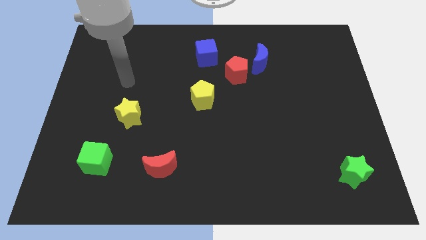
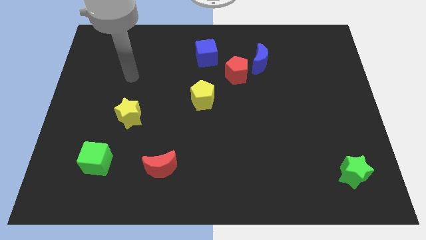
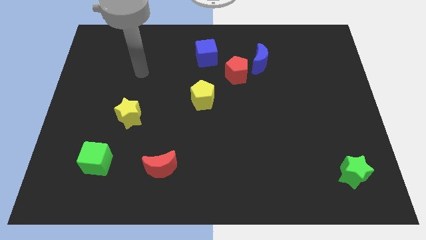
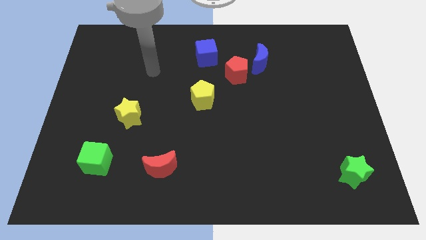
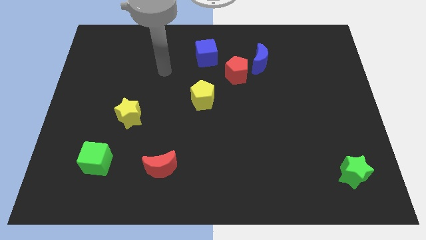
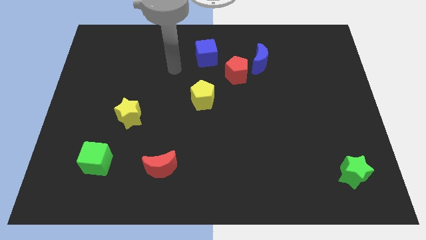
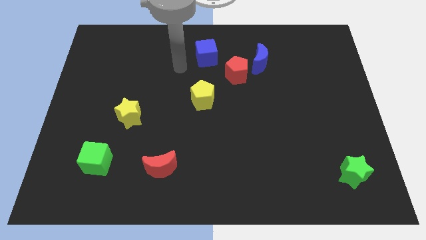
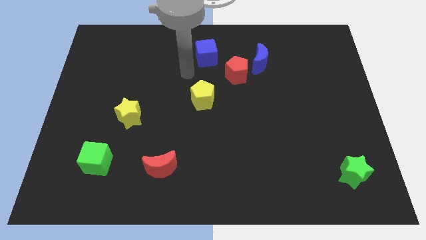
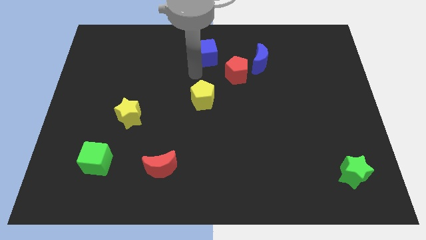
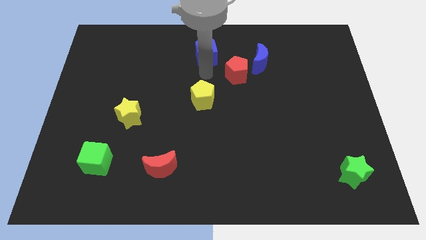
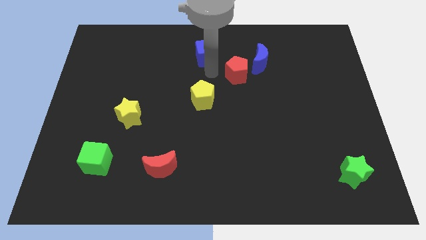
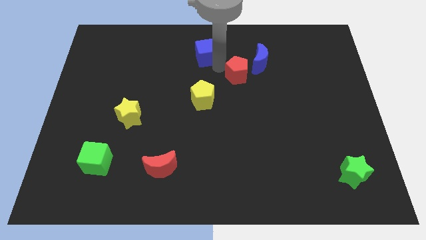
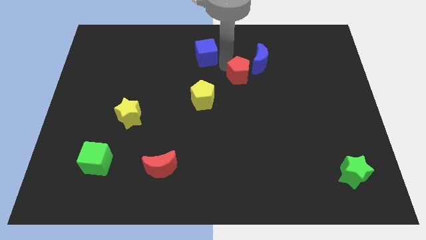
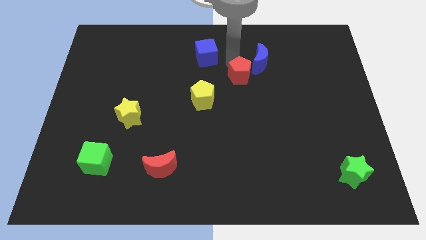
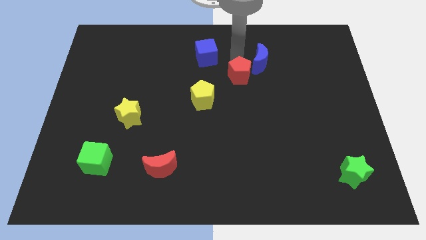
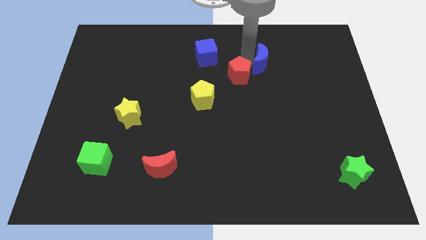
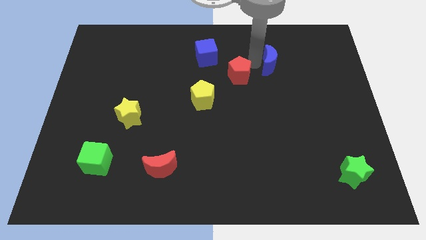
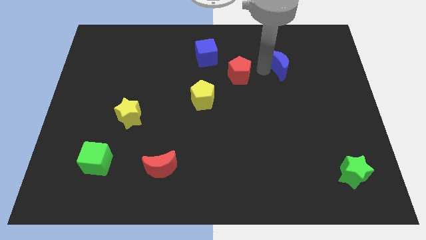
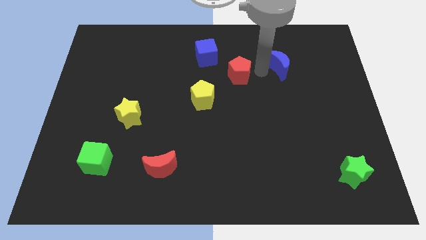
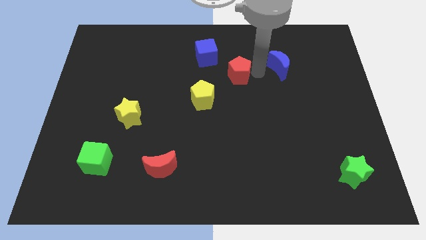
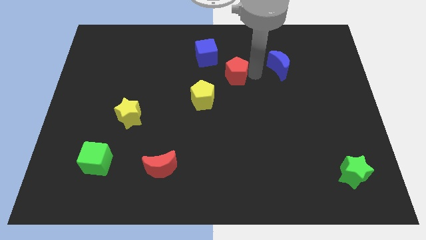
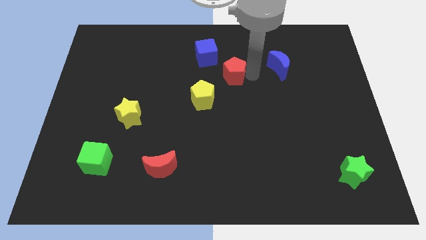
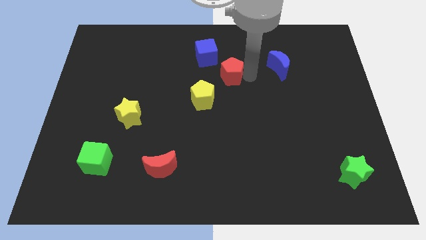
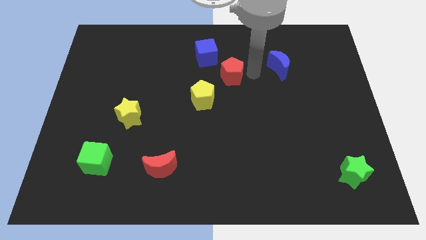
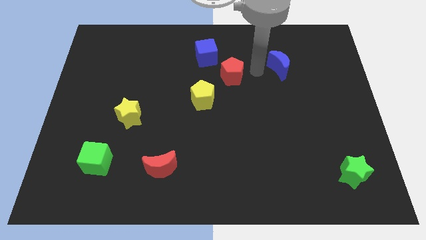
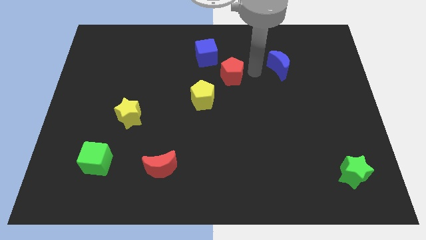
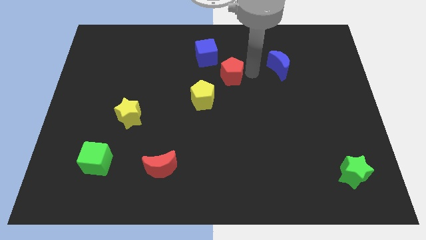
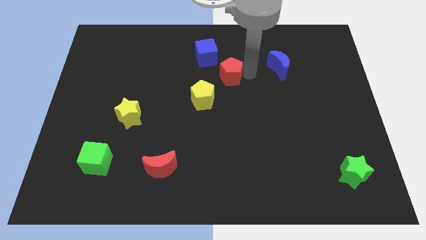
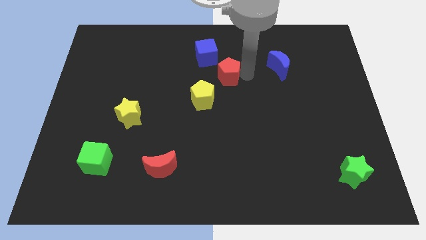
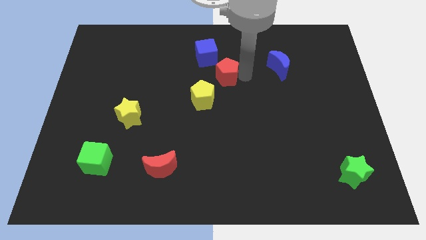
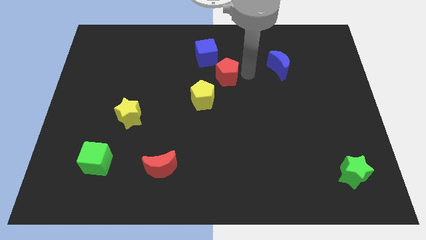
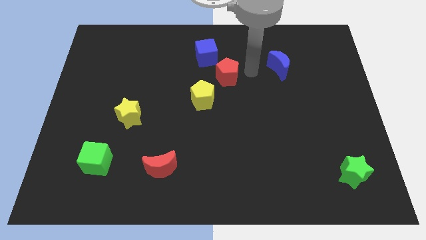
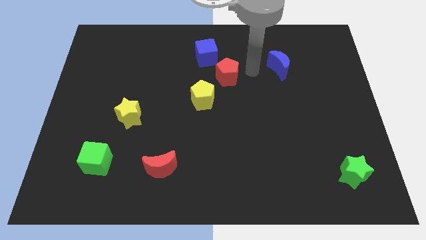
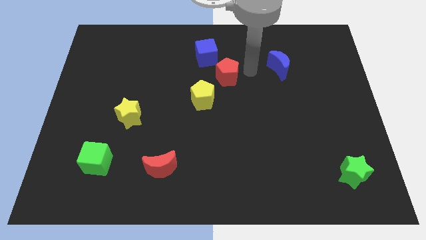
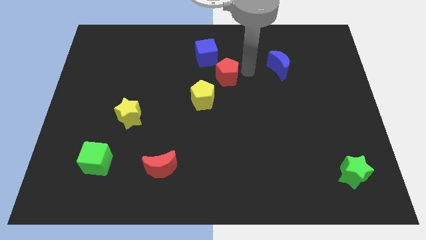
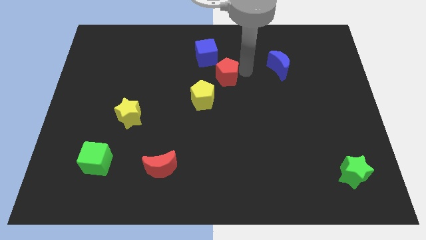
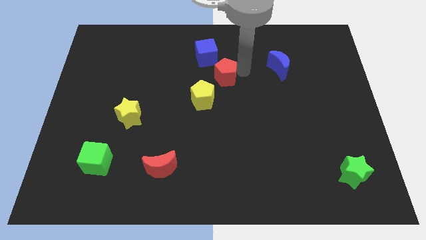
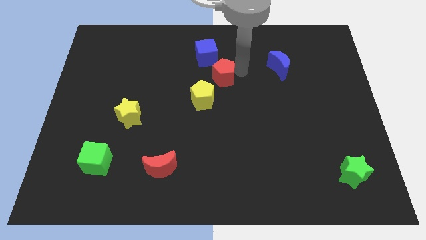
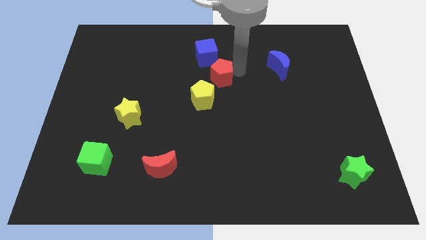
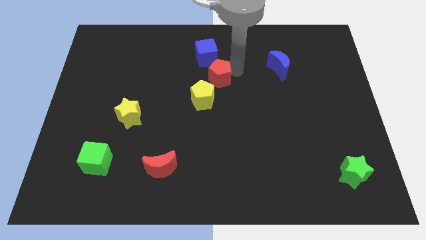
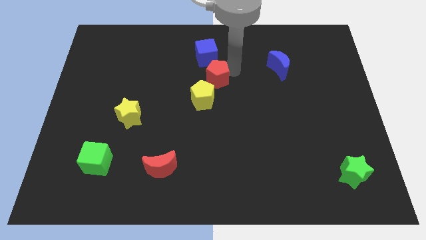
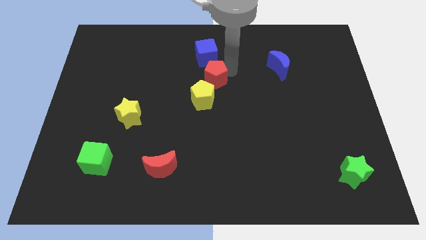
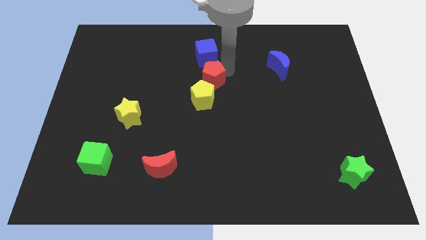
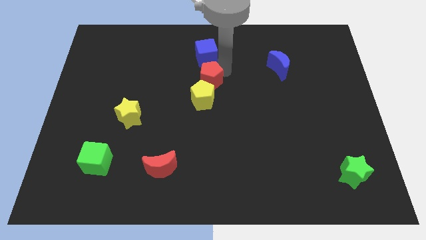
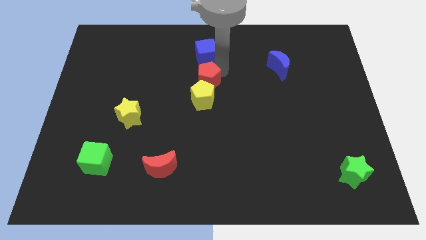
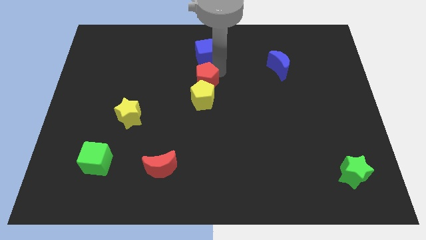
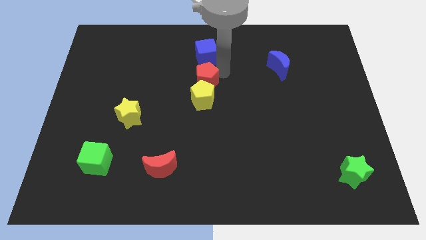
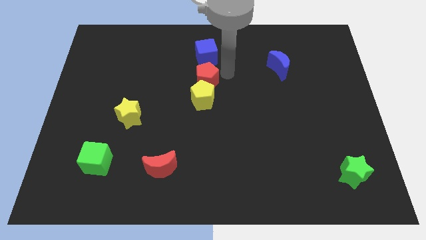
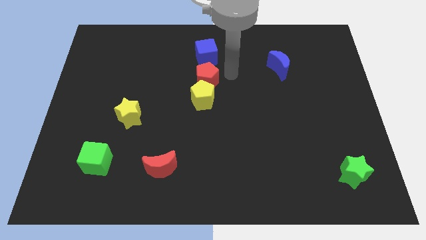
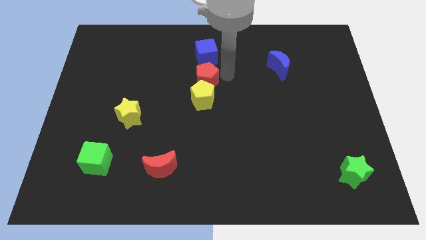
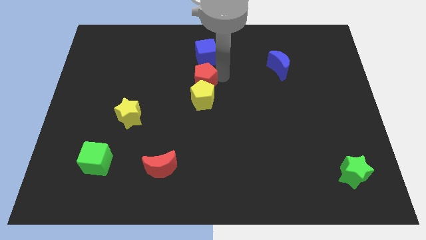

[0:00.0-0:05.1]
push the red pentagon down and to the left slightly

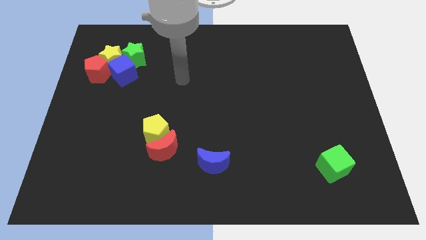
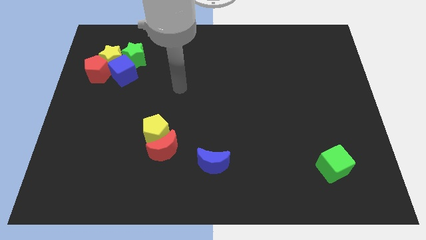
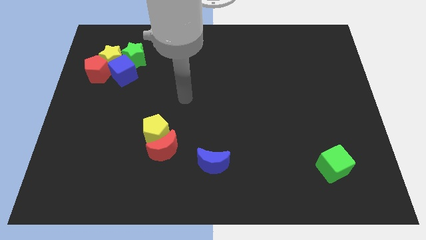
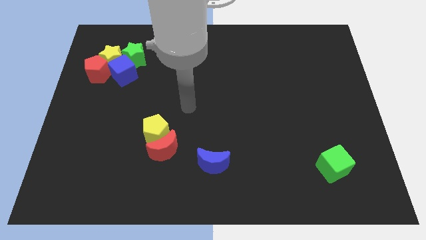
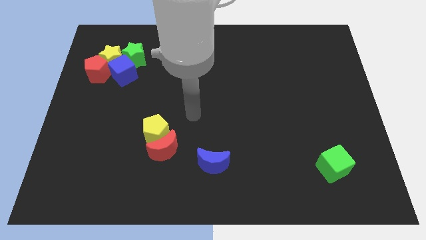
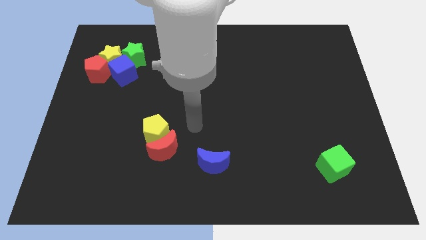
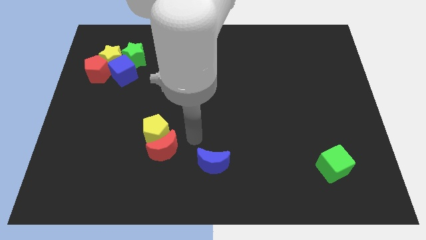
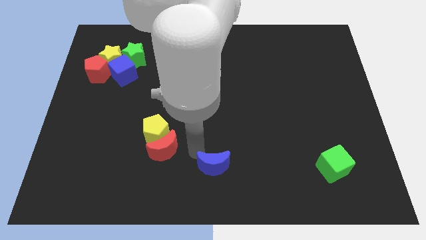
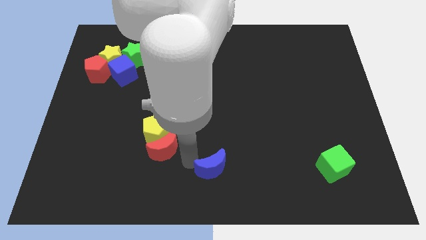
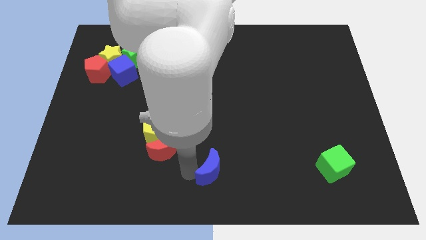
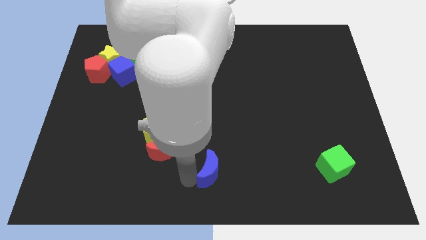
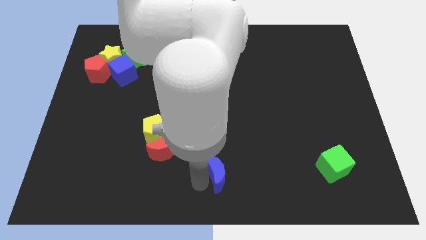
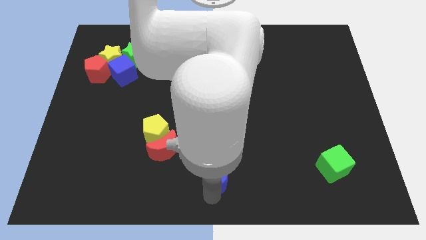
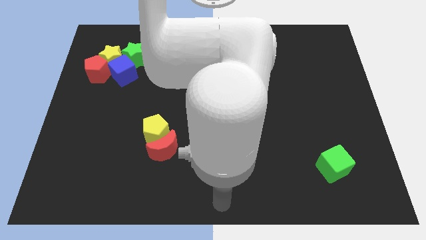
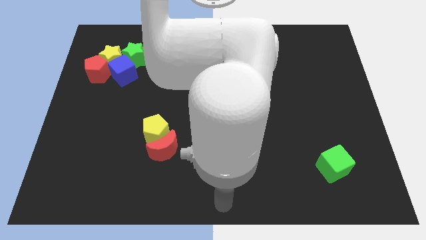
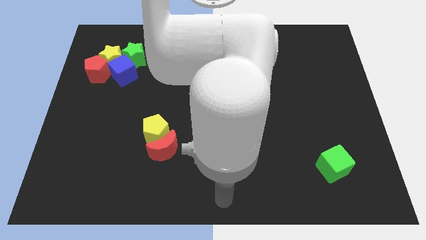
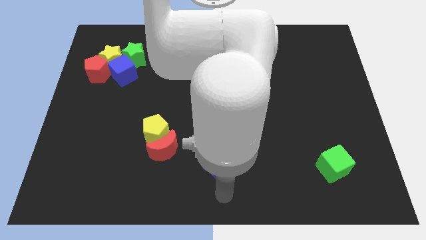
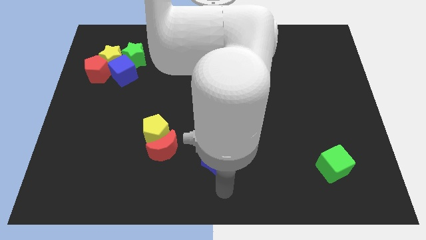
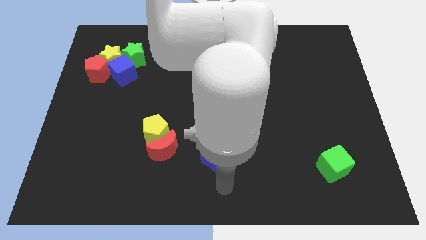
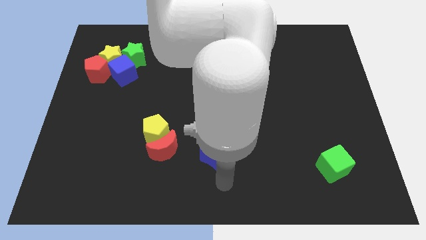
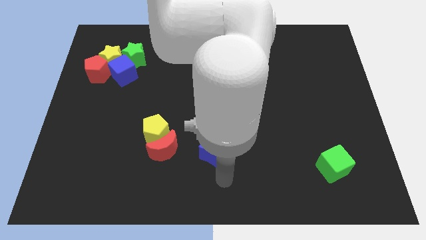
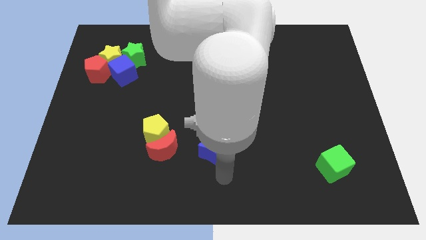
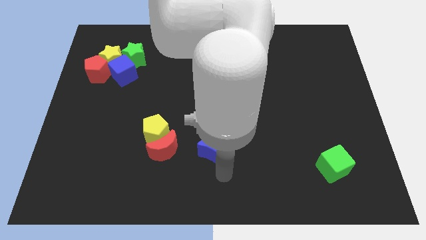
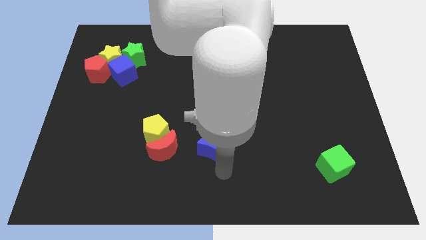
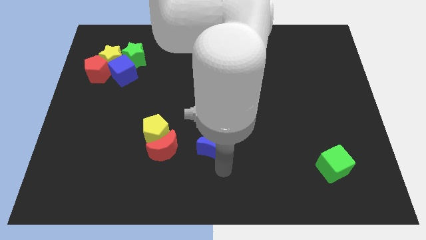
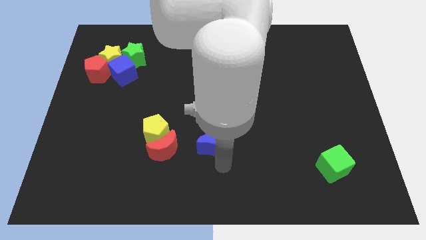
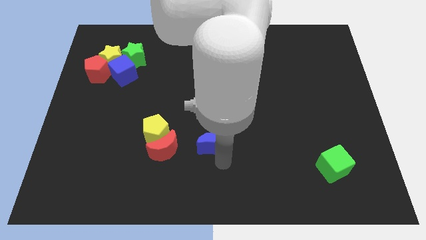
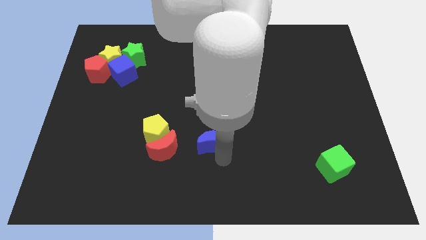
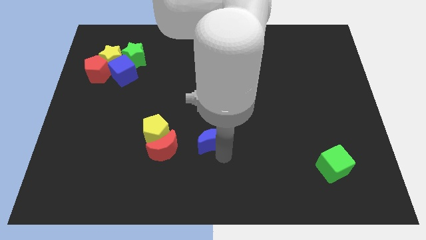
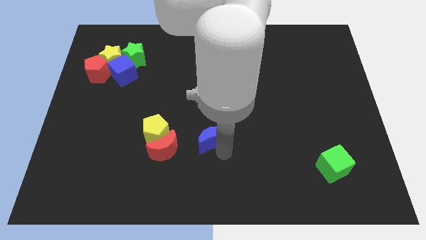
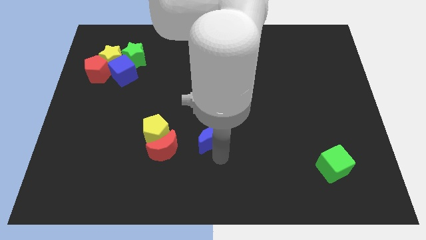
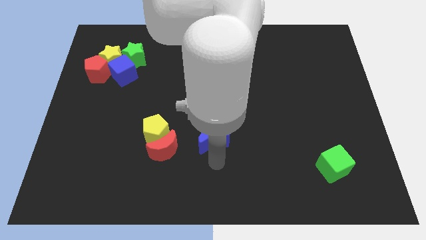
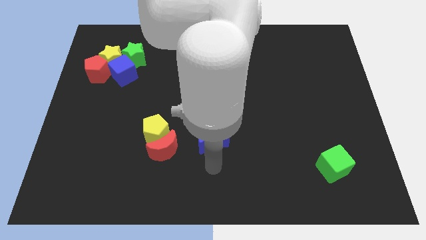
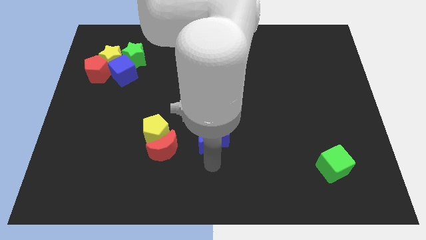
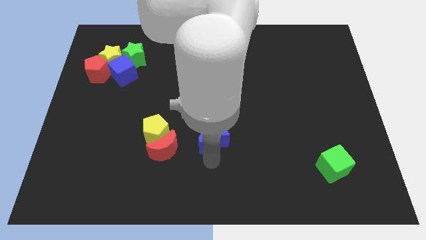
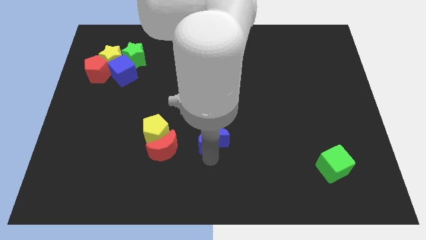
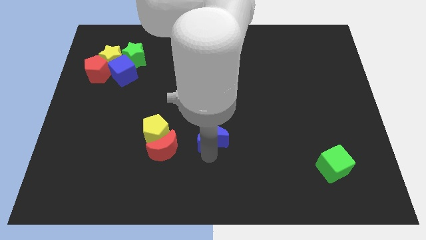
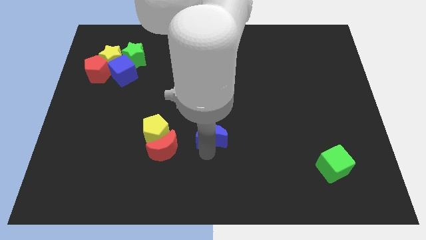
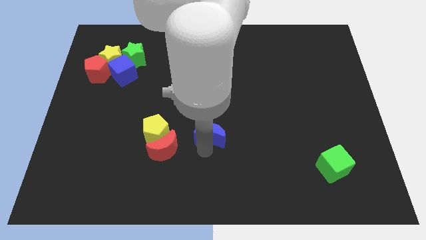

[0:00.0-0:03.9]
move the blue moon up a little
